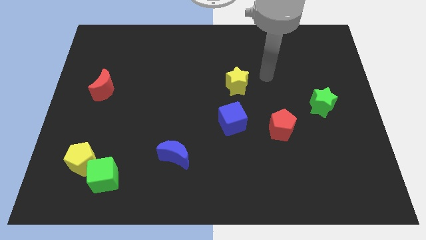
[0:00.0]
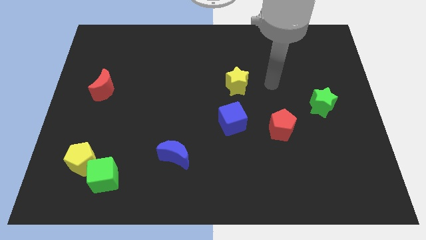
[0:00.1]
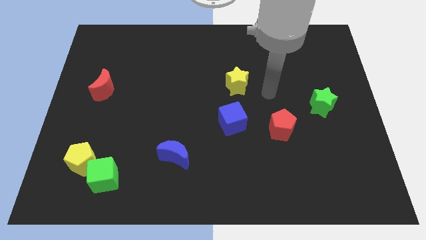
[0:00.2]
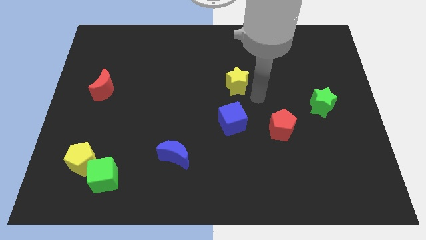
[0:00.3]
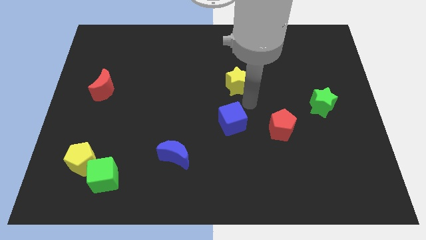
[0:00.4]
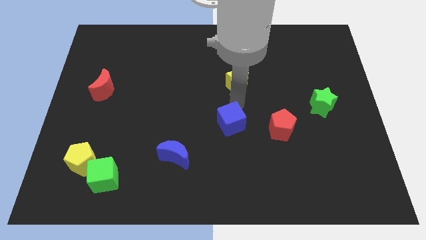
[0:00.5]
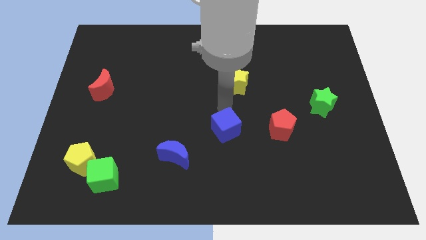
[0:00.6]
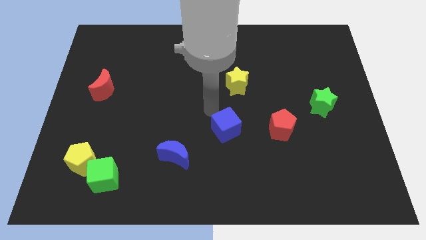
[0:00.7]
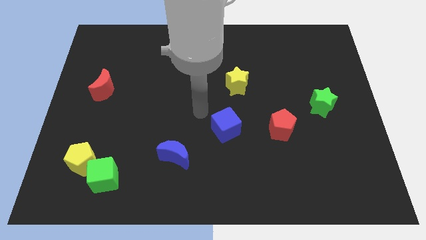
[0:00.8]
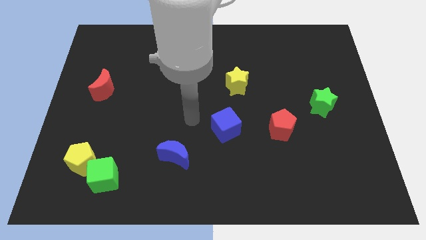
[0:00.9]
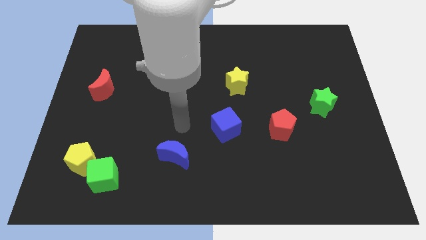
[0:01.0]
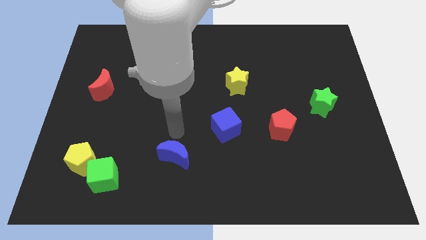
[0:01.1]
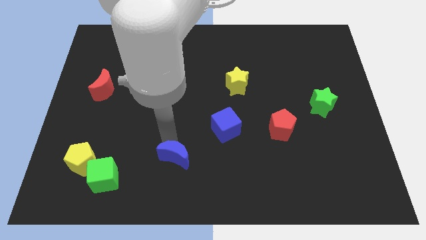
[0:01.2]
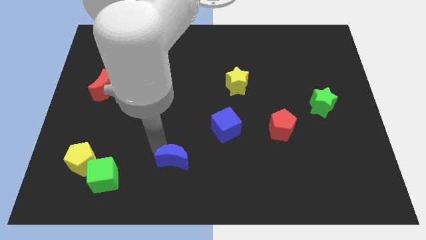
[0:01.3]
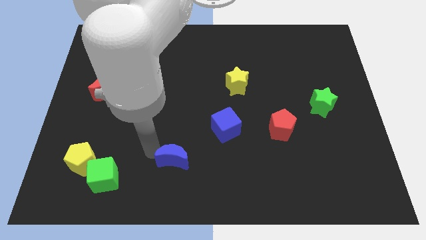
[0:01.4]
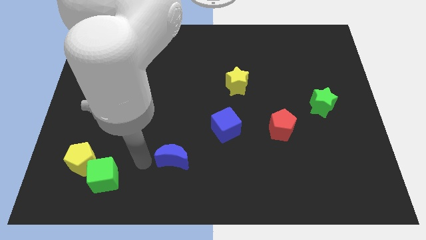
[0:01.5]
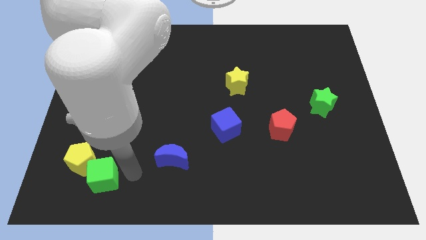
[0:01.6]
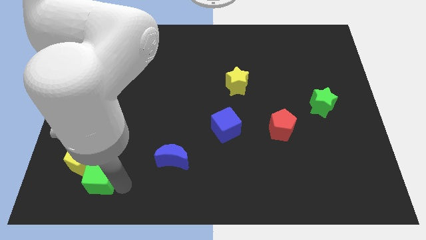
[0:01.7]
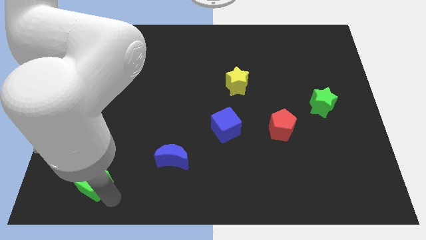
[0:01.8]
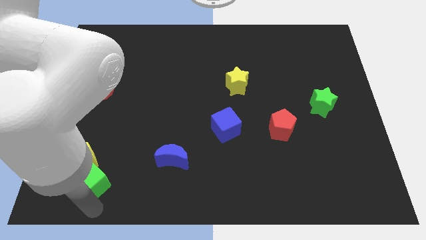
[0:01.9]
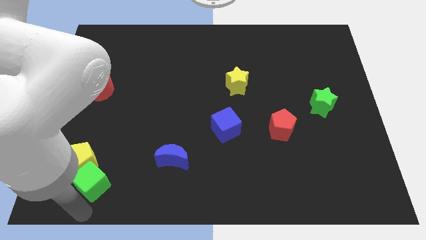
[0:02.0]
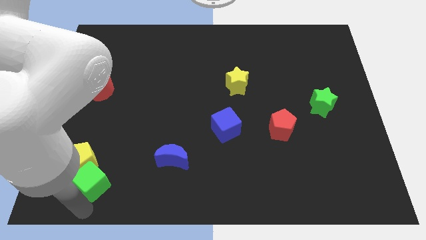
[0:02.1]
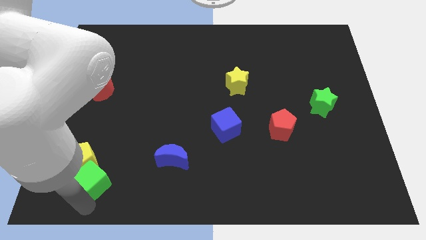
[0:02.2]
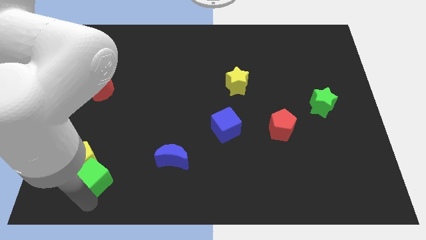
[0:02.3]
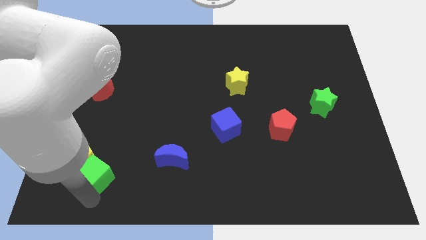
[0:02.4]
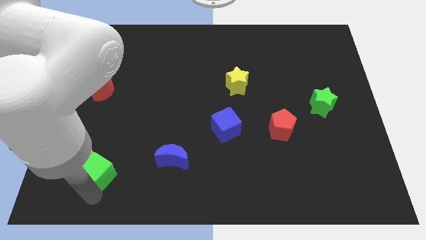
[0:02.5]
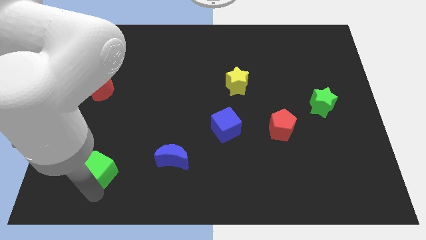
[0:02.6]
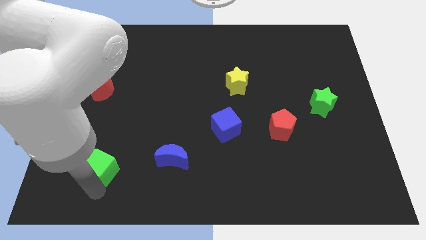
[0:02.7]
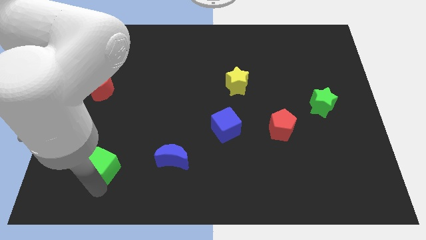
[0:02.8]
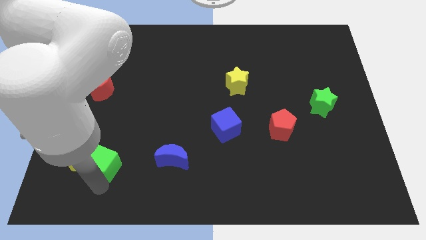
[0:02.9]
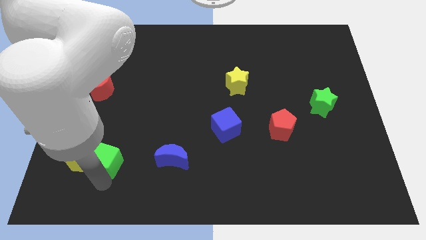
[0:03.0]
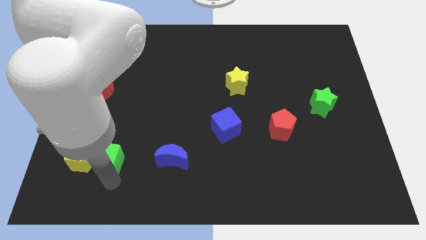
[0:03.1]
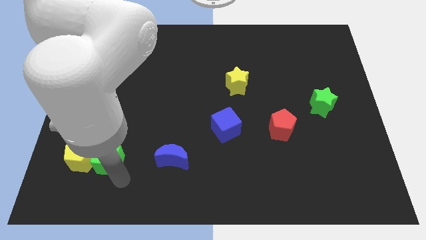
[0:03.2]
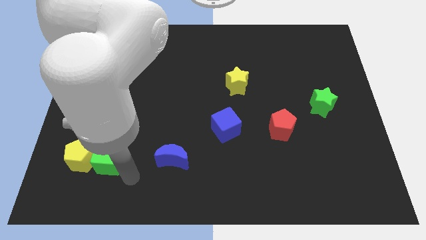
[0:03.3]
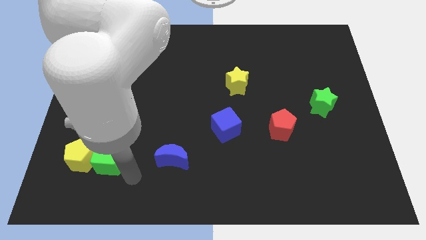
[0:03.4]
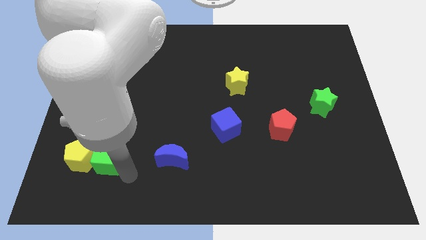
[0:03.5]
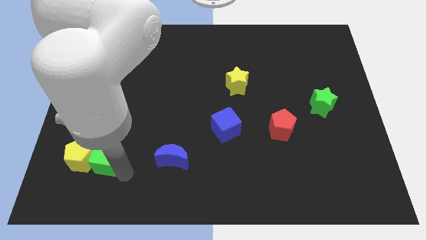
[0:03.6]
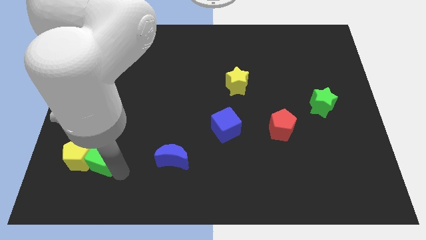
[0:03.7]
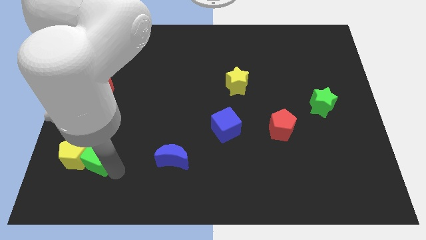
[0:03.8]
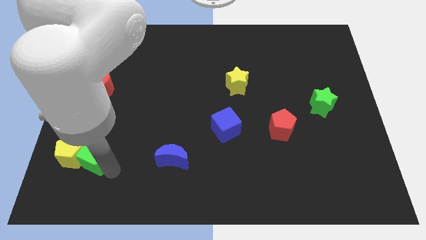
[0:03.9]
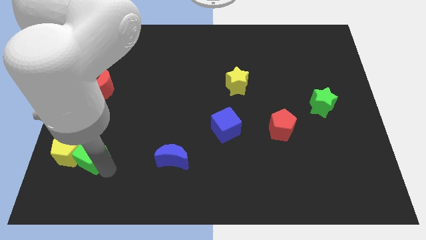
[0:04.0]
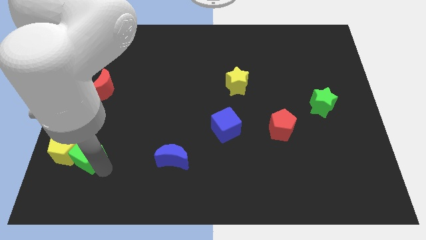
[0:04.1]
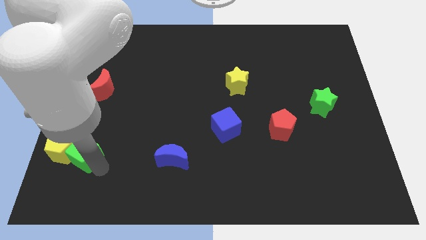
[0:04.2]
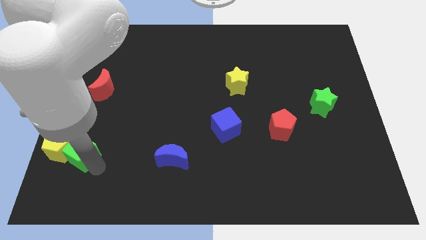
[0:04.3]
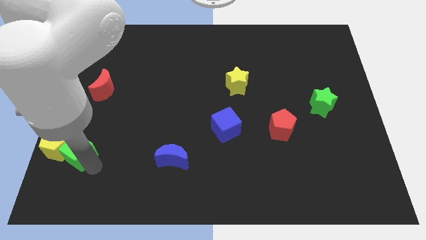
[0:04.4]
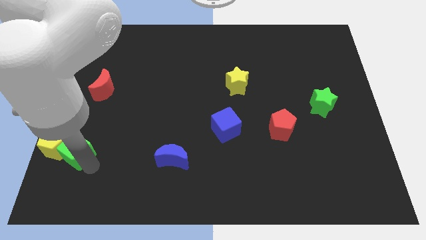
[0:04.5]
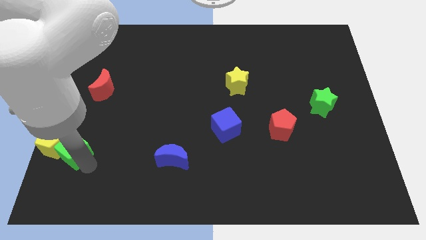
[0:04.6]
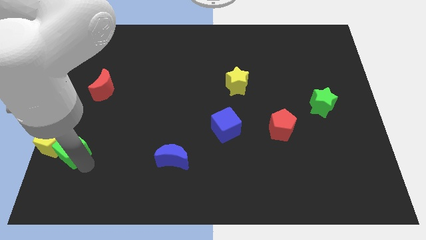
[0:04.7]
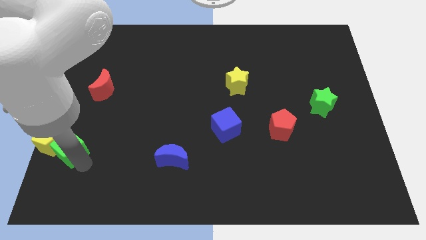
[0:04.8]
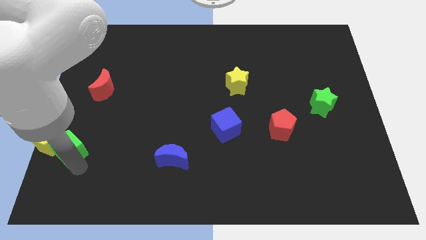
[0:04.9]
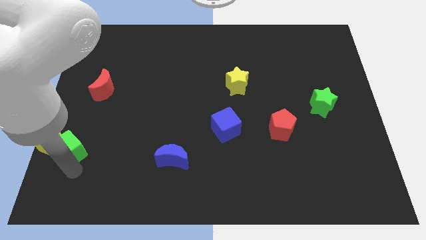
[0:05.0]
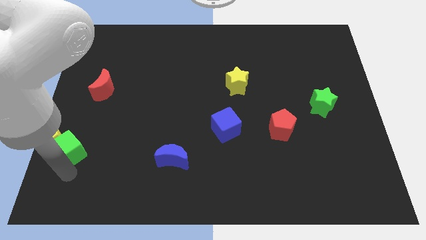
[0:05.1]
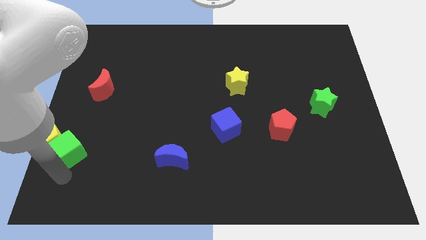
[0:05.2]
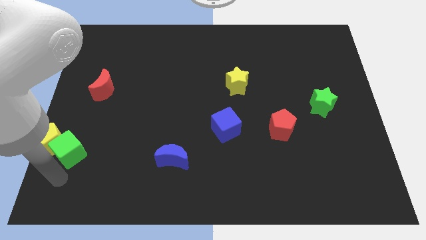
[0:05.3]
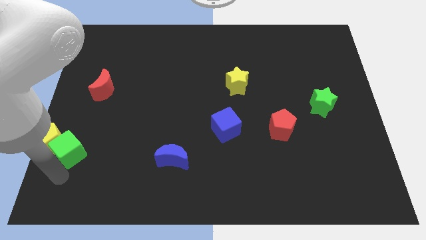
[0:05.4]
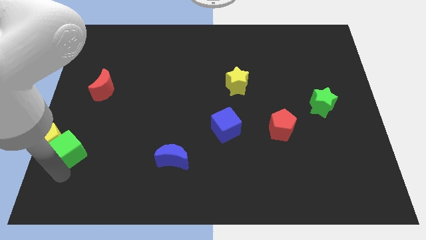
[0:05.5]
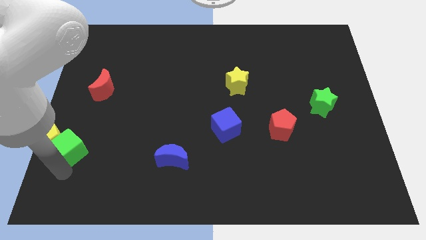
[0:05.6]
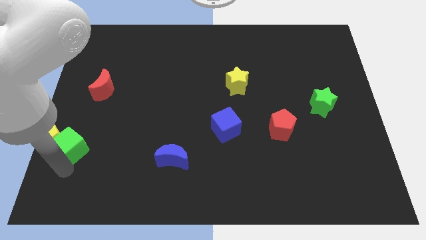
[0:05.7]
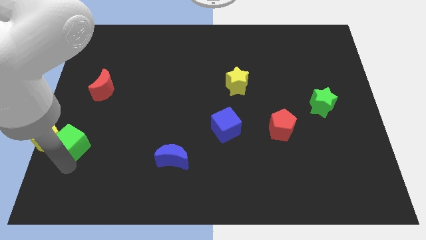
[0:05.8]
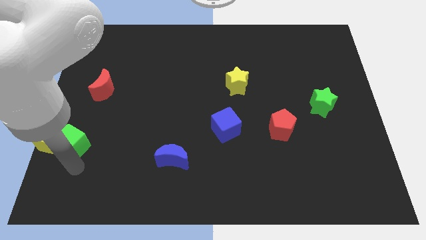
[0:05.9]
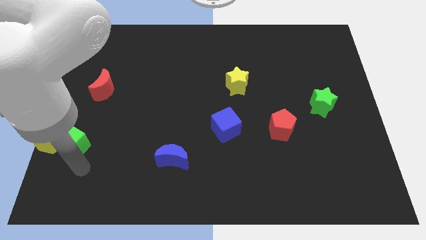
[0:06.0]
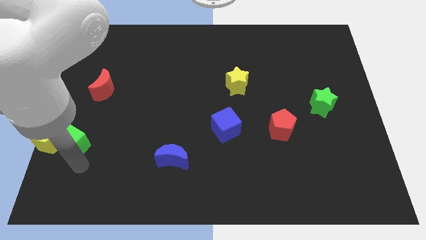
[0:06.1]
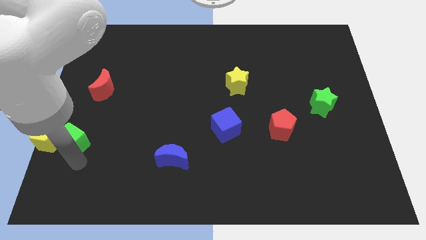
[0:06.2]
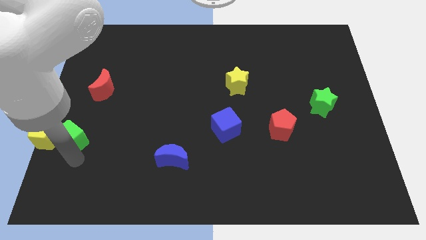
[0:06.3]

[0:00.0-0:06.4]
slide the green cube to the left side of the board
